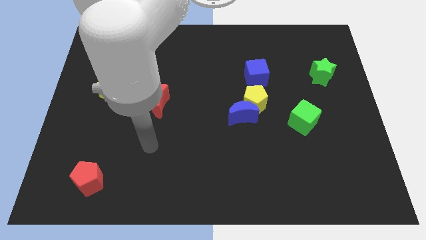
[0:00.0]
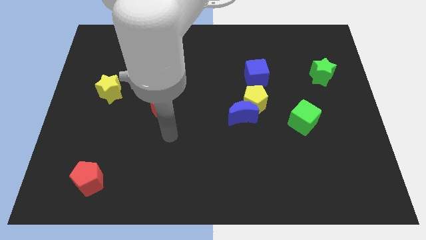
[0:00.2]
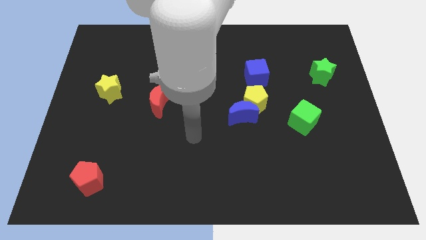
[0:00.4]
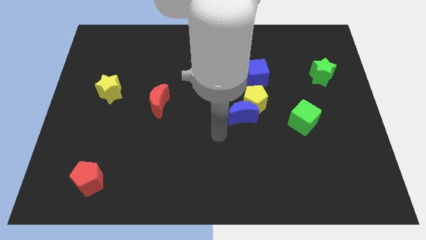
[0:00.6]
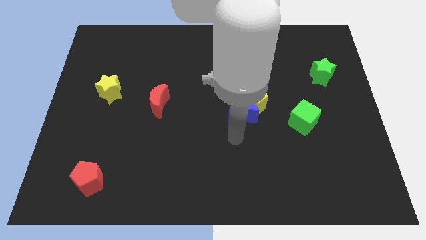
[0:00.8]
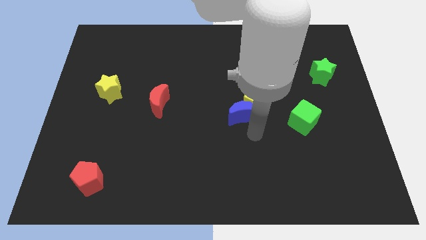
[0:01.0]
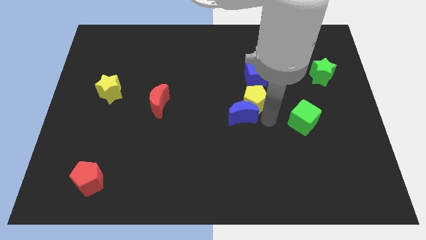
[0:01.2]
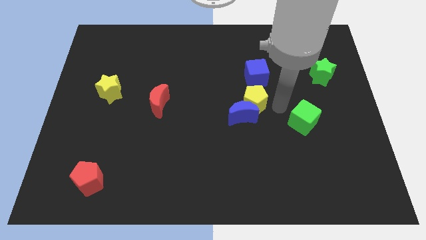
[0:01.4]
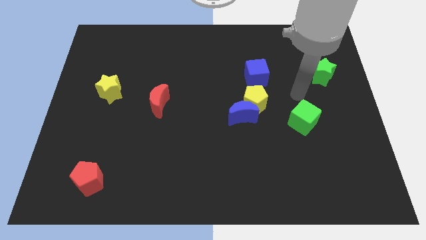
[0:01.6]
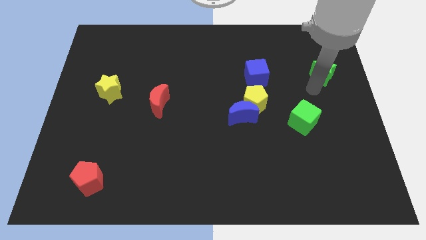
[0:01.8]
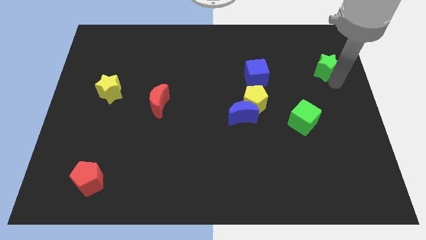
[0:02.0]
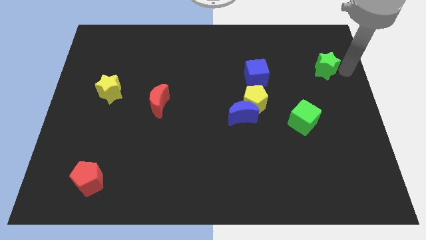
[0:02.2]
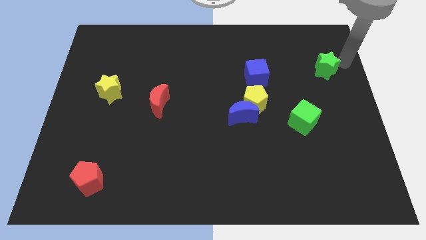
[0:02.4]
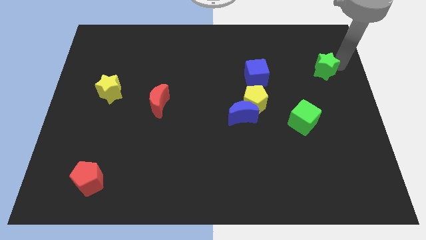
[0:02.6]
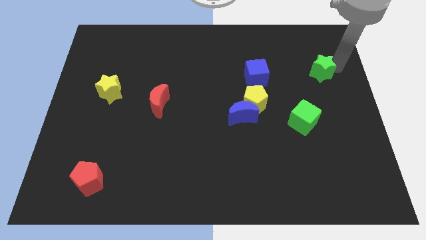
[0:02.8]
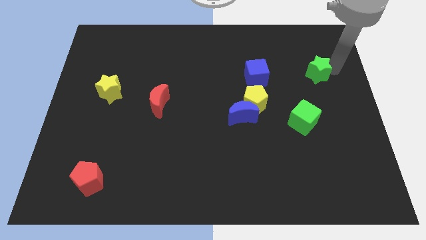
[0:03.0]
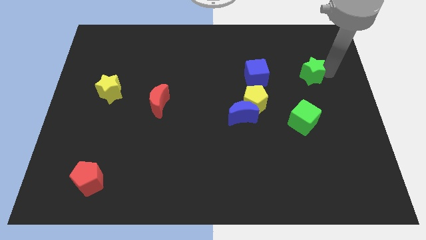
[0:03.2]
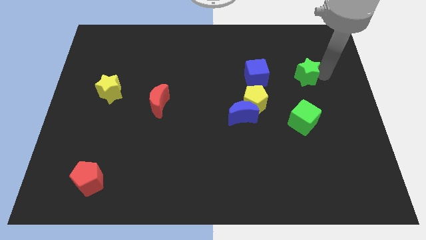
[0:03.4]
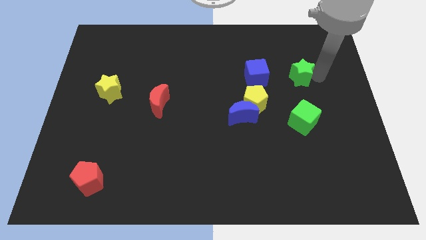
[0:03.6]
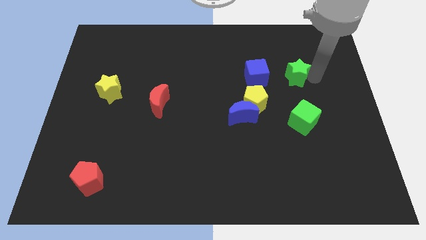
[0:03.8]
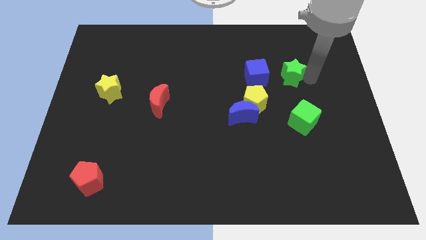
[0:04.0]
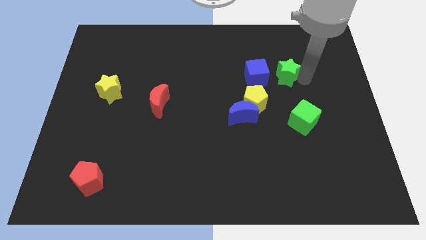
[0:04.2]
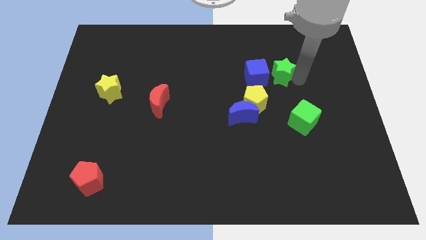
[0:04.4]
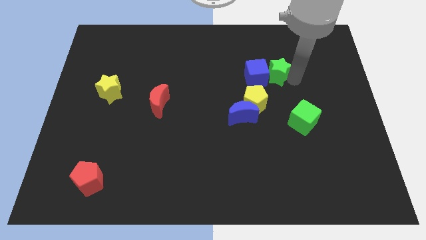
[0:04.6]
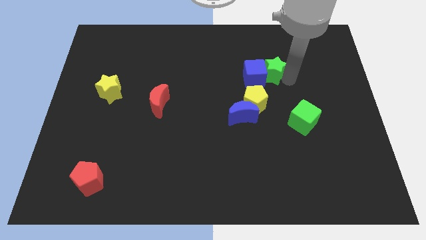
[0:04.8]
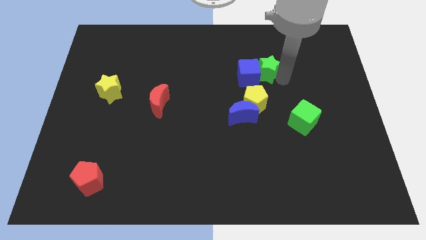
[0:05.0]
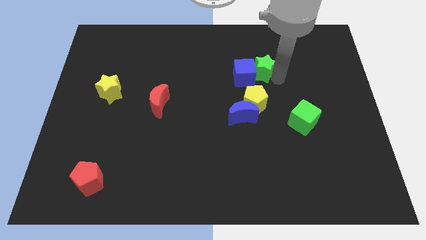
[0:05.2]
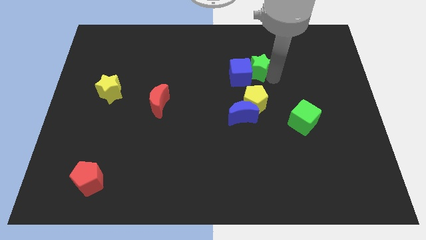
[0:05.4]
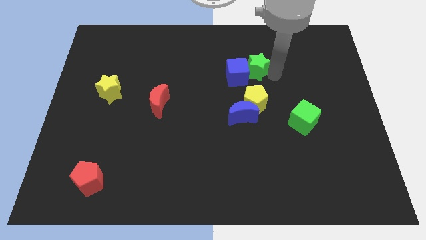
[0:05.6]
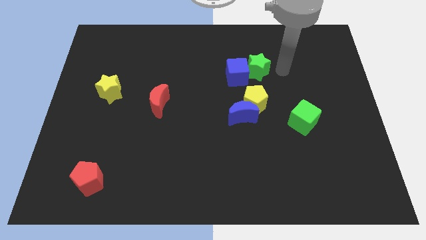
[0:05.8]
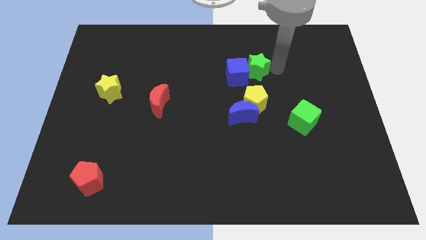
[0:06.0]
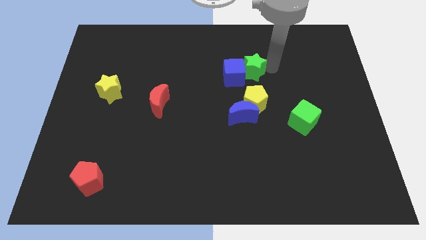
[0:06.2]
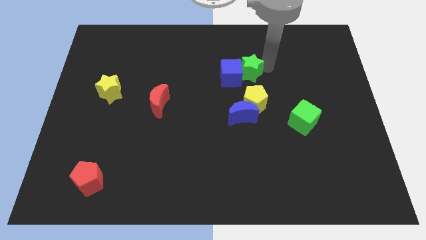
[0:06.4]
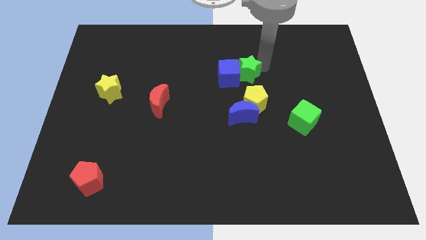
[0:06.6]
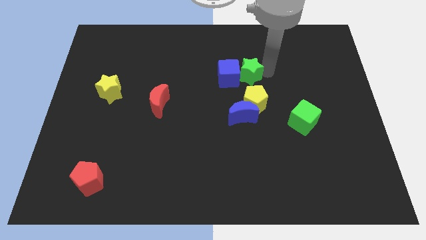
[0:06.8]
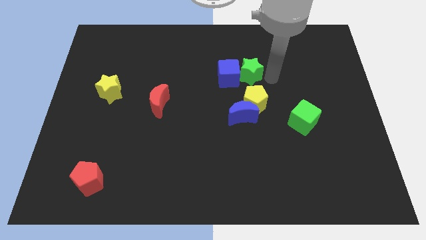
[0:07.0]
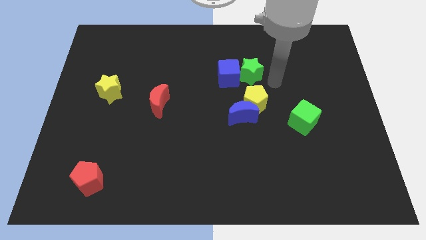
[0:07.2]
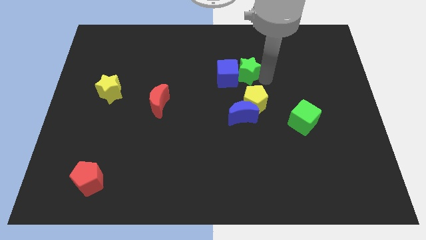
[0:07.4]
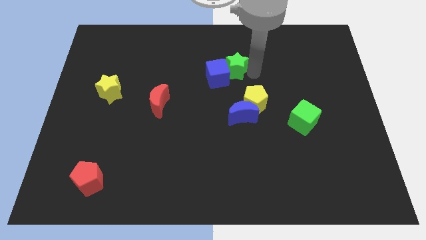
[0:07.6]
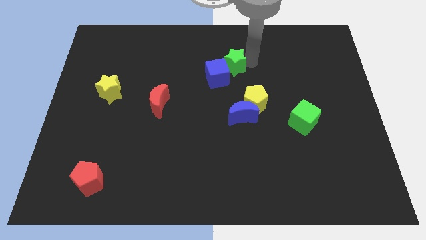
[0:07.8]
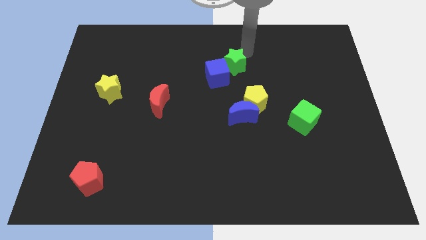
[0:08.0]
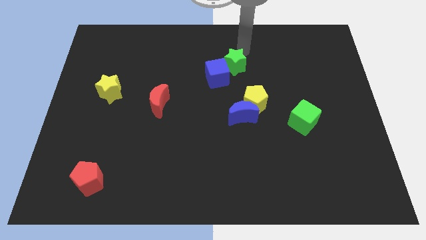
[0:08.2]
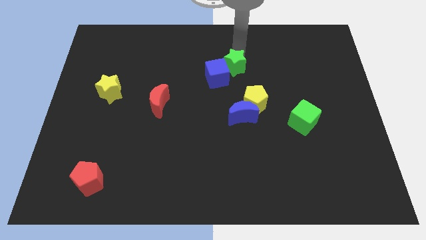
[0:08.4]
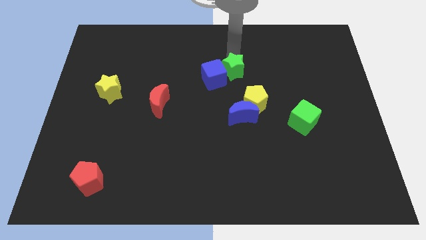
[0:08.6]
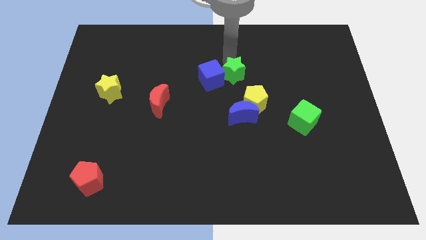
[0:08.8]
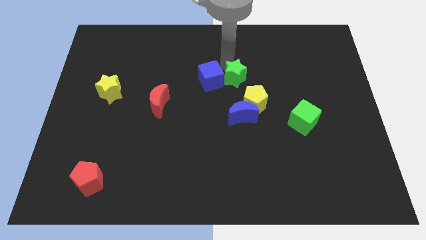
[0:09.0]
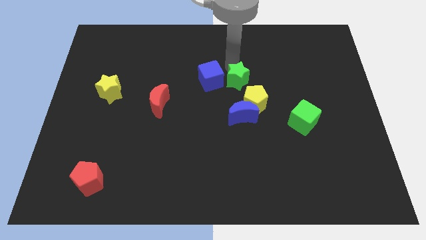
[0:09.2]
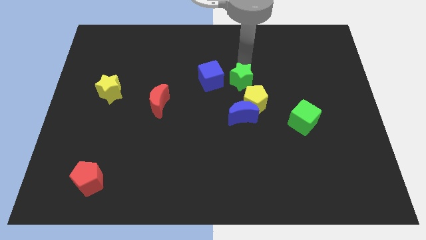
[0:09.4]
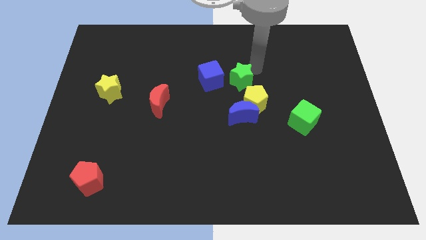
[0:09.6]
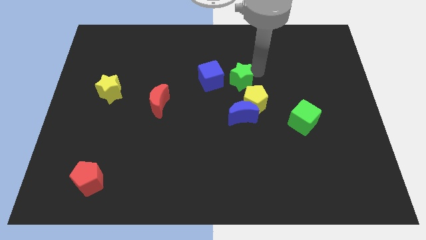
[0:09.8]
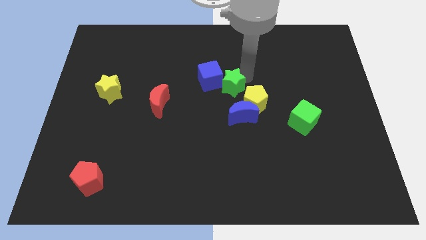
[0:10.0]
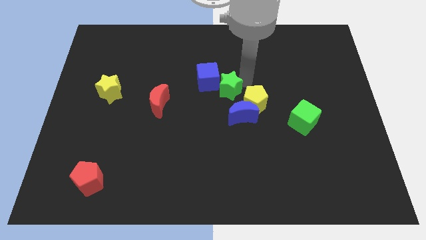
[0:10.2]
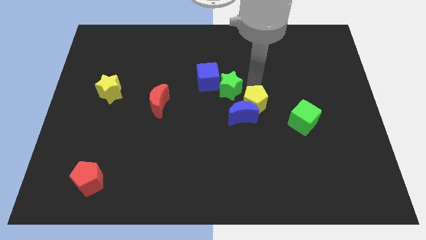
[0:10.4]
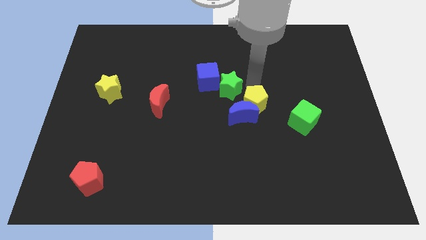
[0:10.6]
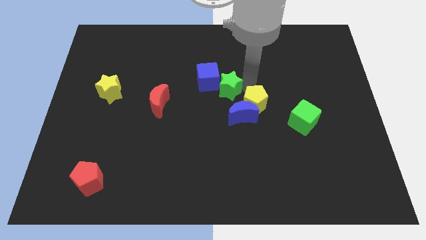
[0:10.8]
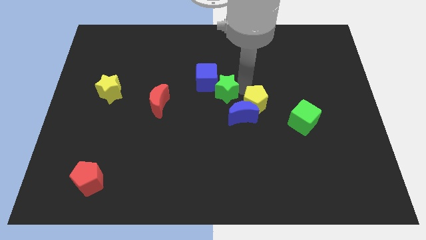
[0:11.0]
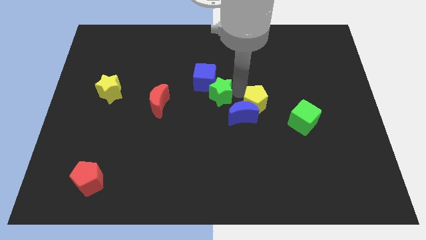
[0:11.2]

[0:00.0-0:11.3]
move the green star to the right of the red moon

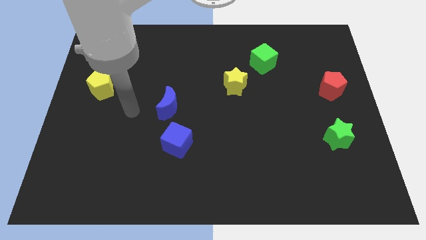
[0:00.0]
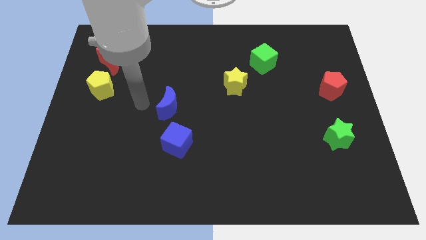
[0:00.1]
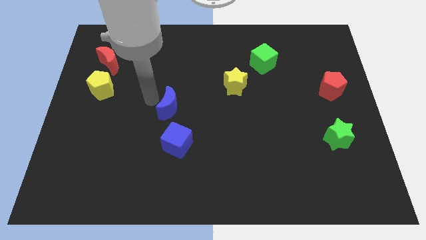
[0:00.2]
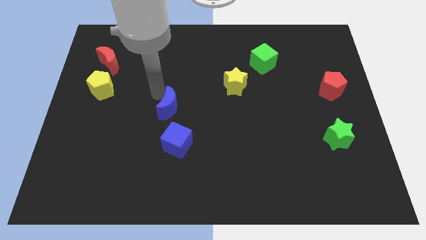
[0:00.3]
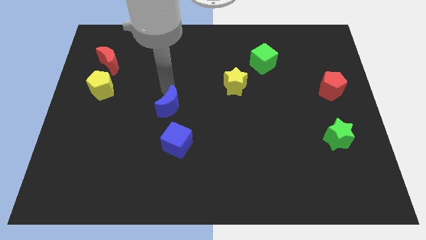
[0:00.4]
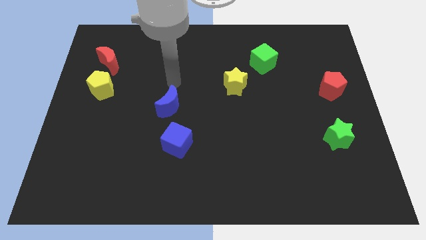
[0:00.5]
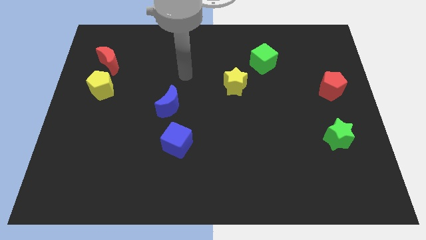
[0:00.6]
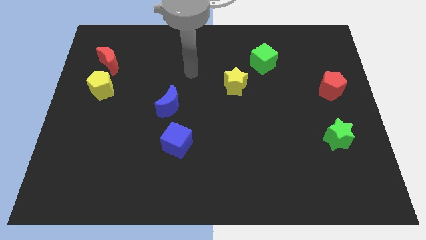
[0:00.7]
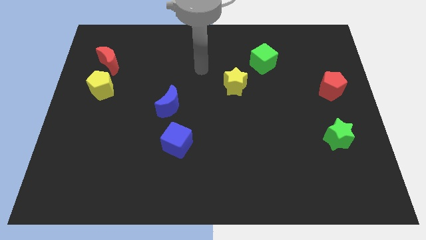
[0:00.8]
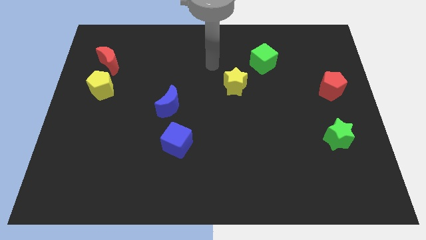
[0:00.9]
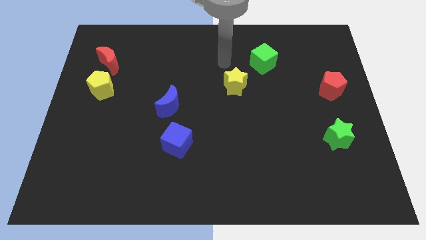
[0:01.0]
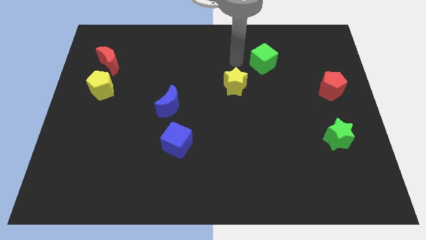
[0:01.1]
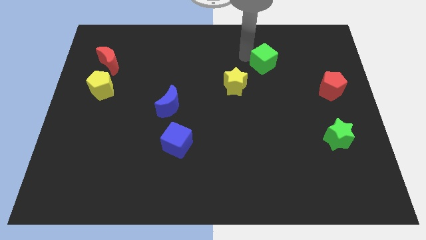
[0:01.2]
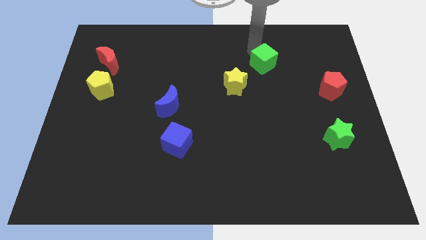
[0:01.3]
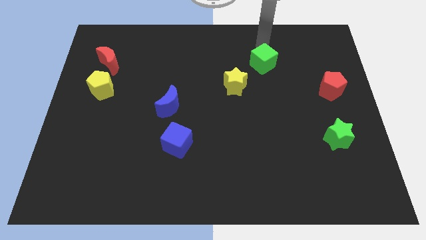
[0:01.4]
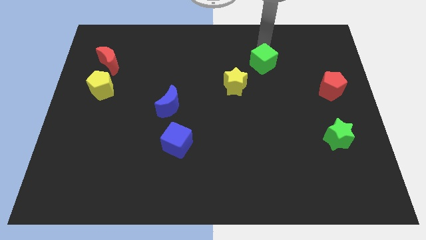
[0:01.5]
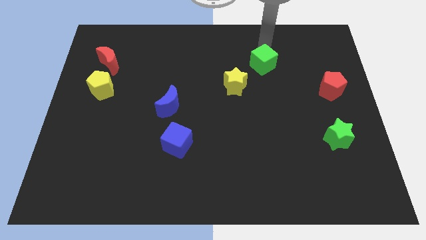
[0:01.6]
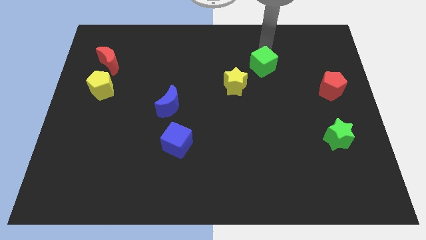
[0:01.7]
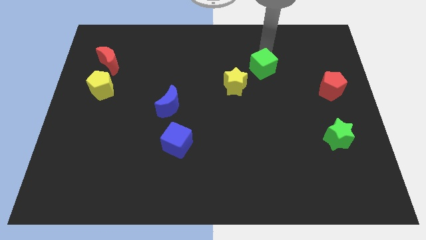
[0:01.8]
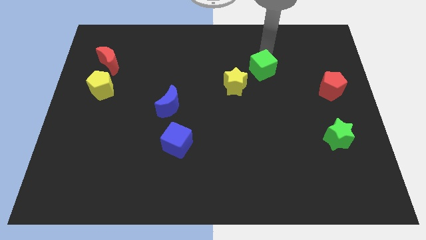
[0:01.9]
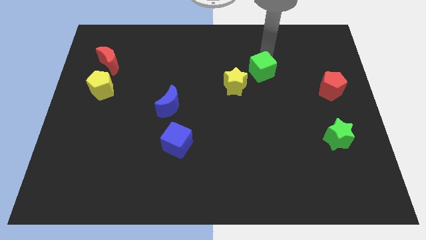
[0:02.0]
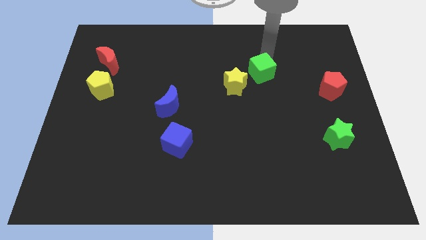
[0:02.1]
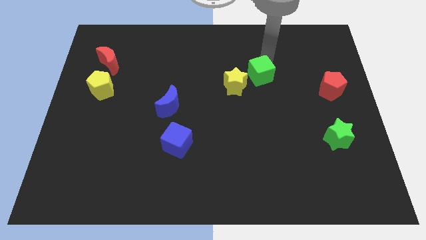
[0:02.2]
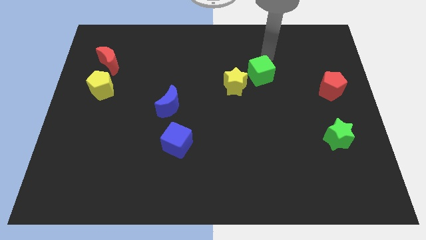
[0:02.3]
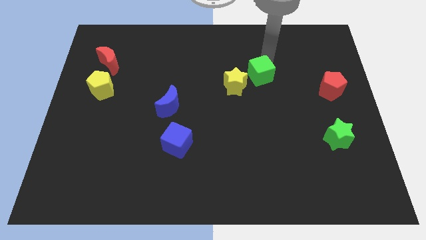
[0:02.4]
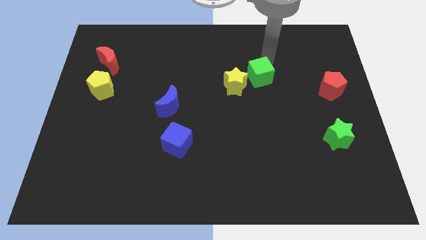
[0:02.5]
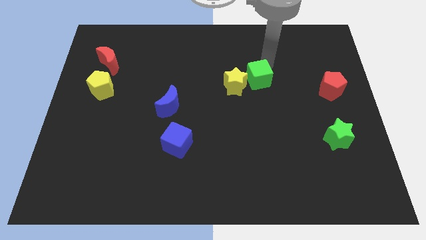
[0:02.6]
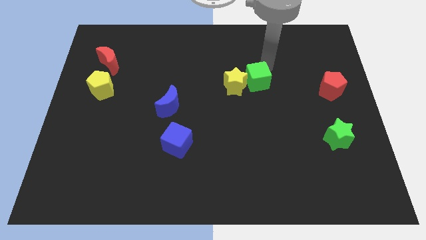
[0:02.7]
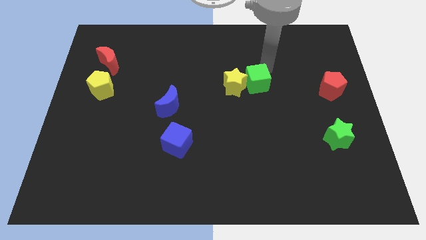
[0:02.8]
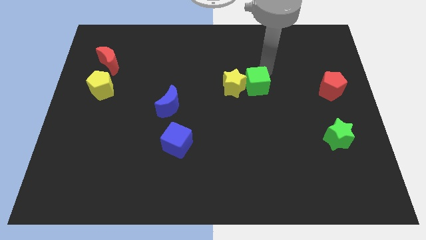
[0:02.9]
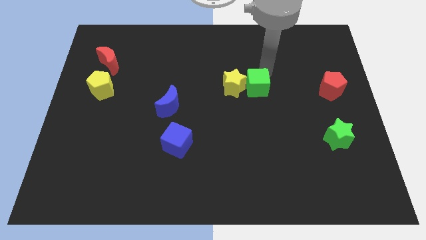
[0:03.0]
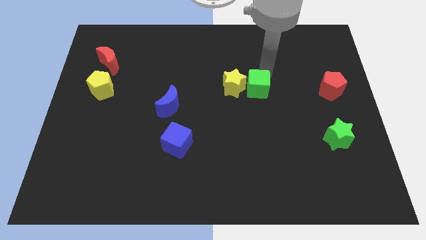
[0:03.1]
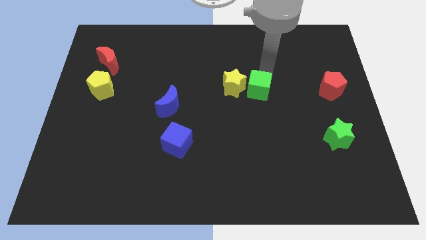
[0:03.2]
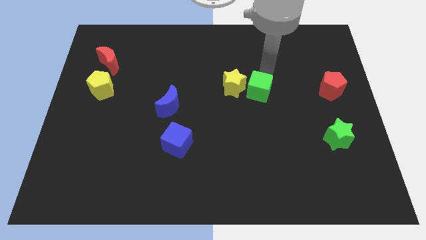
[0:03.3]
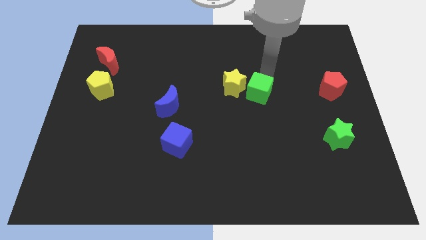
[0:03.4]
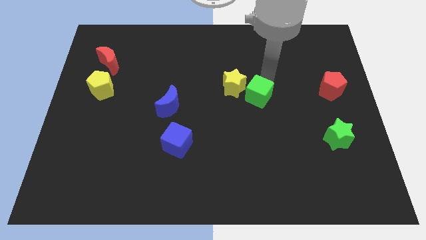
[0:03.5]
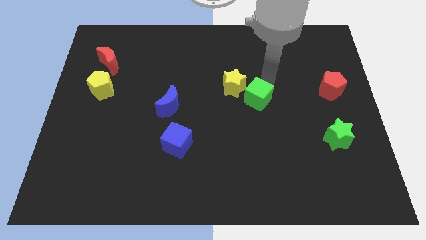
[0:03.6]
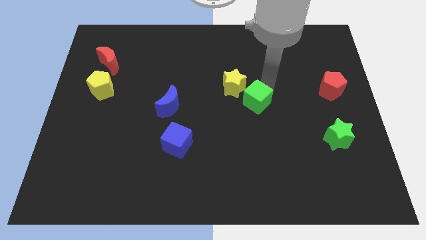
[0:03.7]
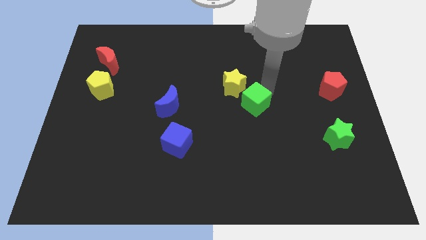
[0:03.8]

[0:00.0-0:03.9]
push the green cube below the yellow star
